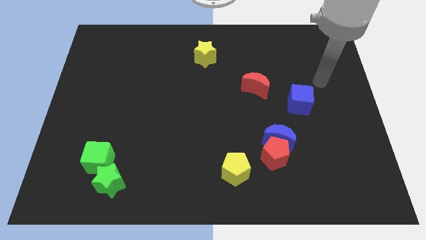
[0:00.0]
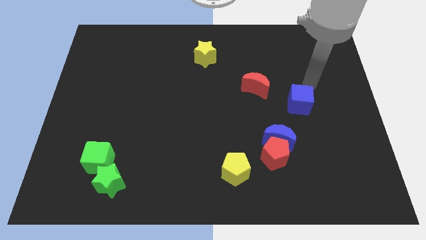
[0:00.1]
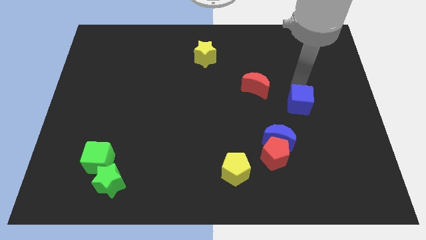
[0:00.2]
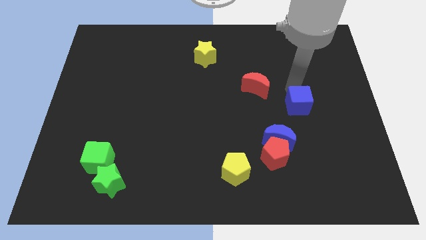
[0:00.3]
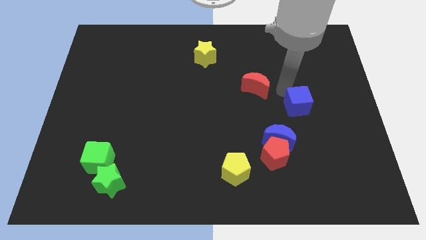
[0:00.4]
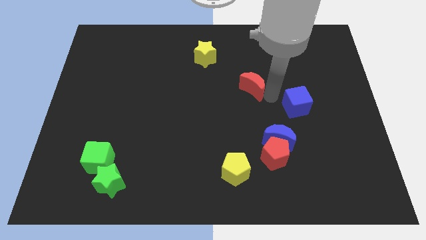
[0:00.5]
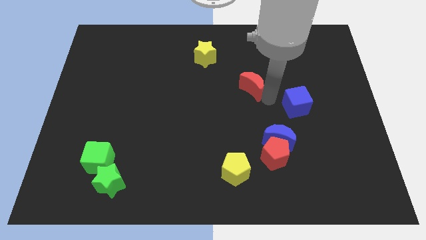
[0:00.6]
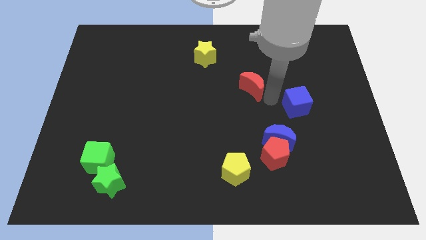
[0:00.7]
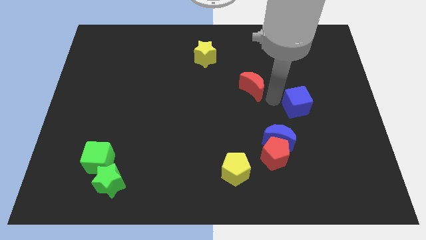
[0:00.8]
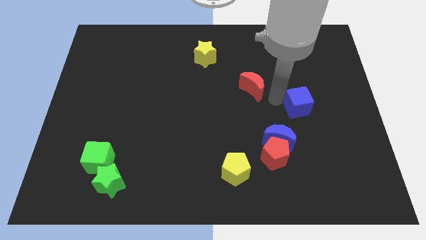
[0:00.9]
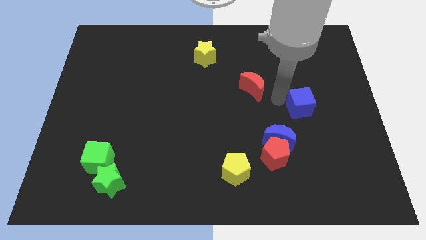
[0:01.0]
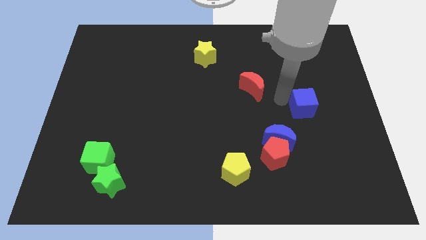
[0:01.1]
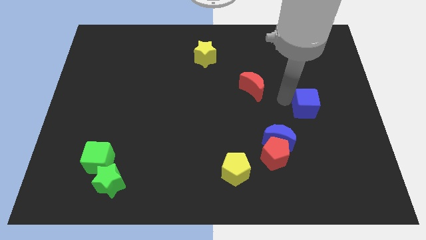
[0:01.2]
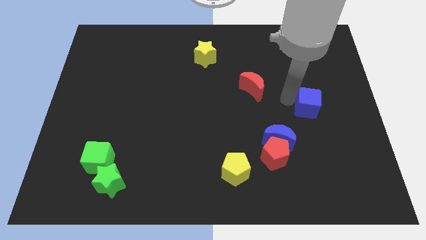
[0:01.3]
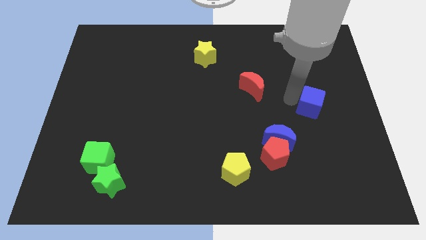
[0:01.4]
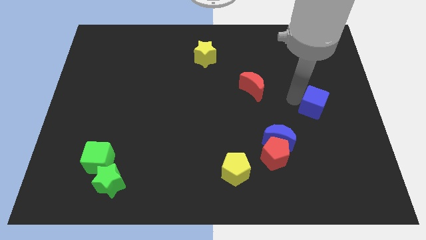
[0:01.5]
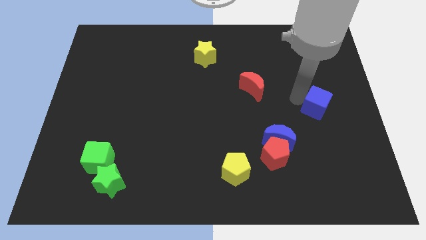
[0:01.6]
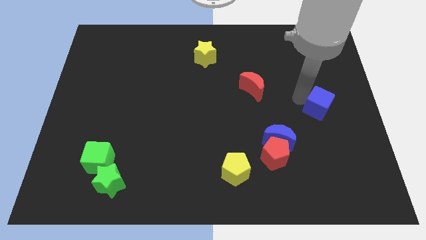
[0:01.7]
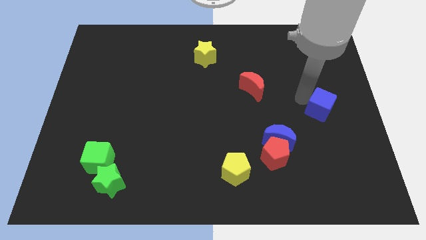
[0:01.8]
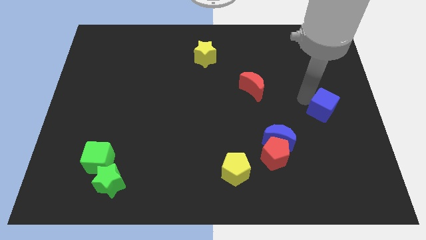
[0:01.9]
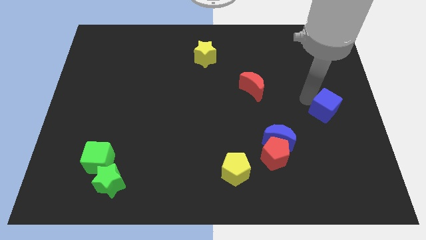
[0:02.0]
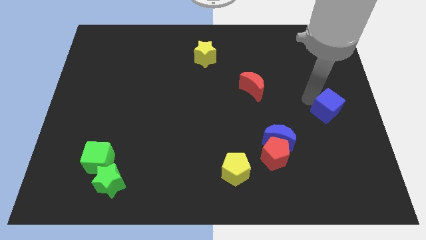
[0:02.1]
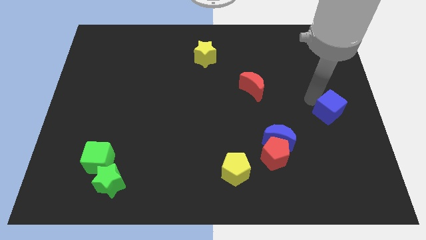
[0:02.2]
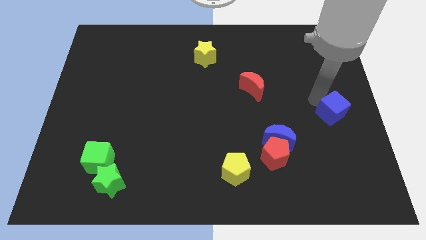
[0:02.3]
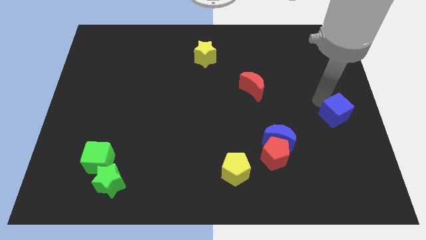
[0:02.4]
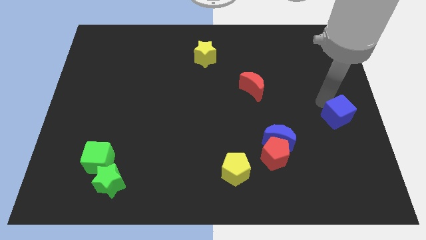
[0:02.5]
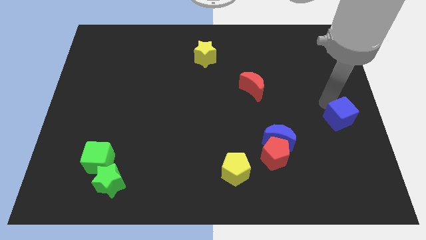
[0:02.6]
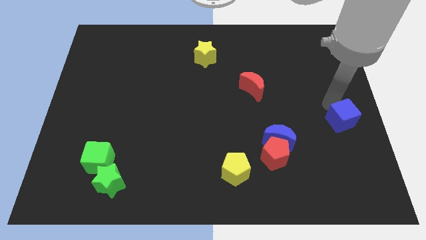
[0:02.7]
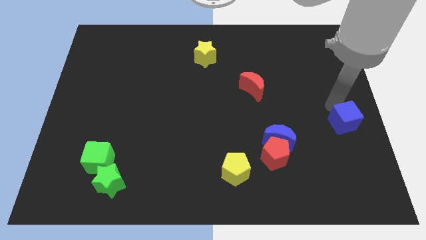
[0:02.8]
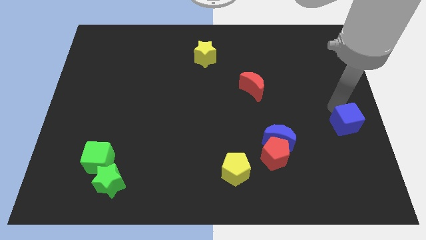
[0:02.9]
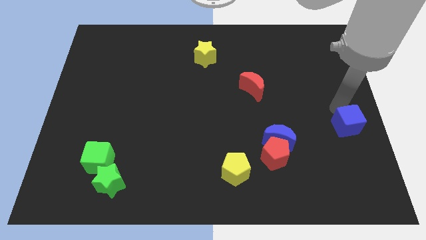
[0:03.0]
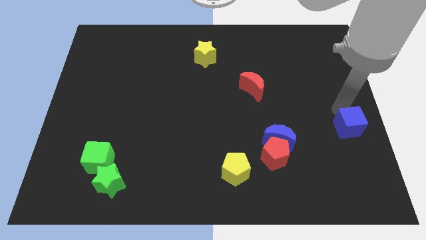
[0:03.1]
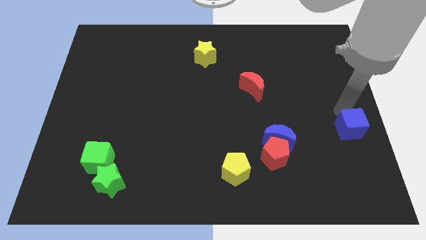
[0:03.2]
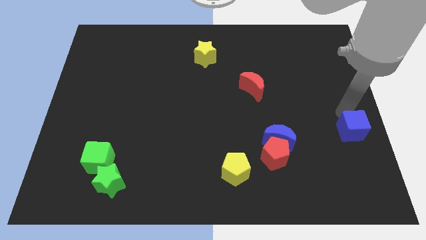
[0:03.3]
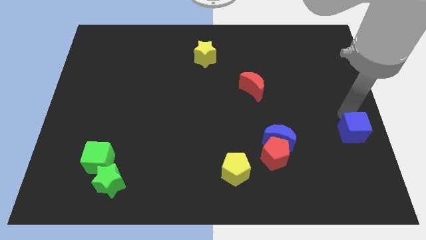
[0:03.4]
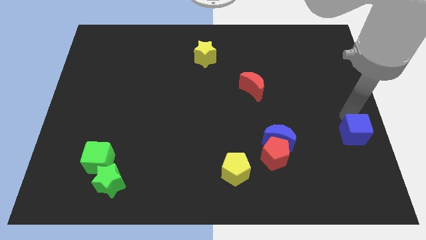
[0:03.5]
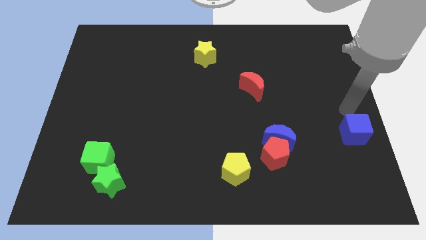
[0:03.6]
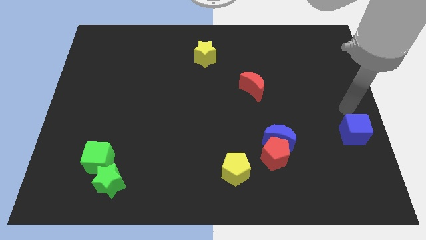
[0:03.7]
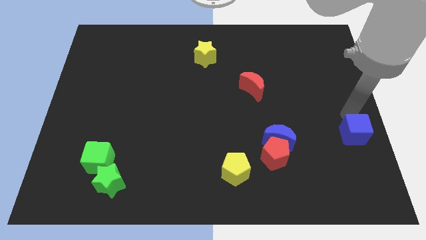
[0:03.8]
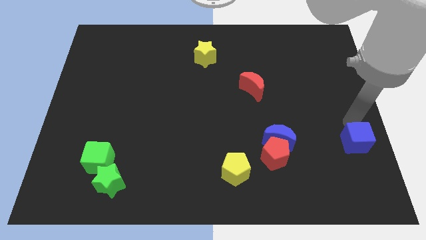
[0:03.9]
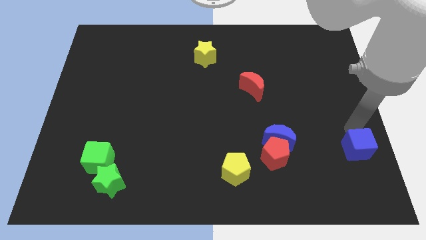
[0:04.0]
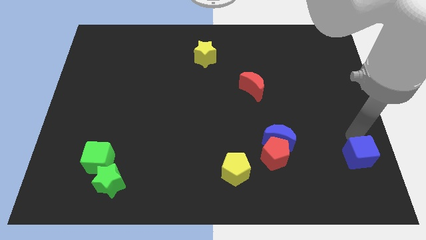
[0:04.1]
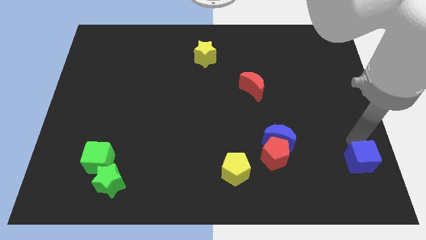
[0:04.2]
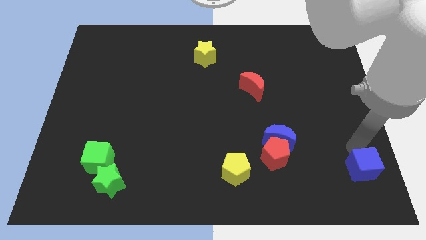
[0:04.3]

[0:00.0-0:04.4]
move the blue cube to the lower right corner

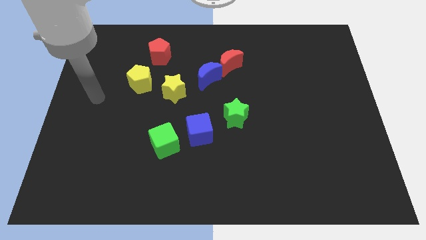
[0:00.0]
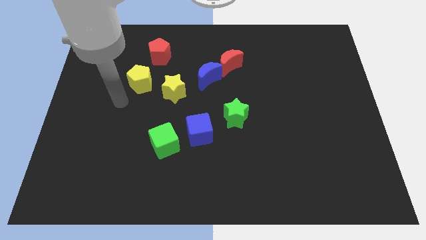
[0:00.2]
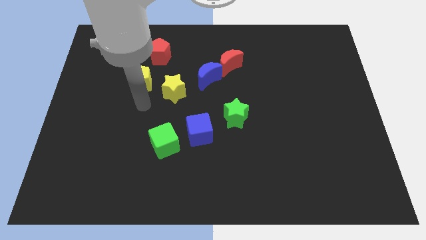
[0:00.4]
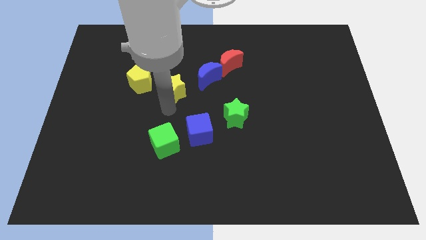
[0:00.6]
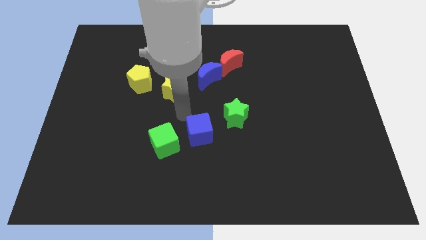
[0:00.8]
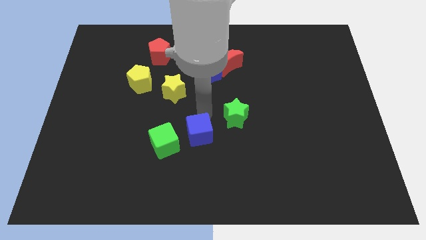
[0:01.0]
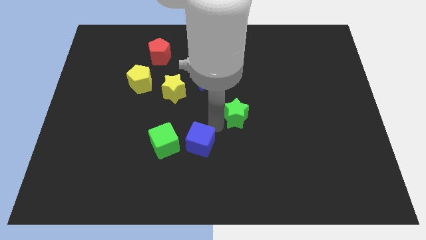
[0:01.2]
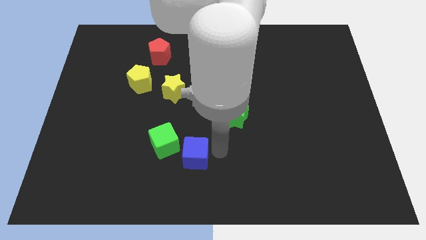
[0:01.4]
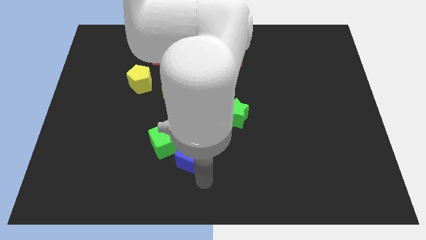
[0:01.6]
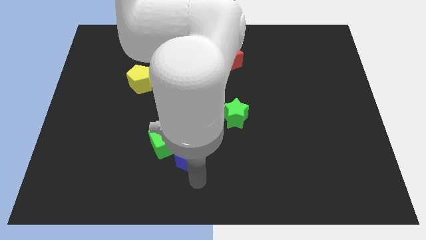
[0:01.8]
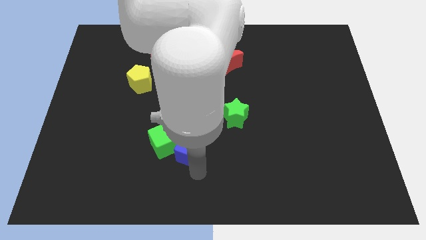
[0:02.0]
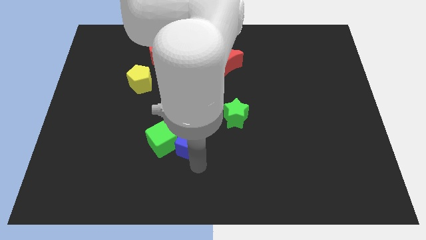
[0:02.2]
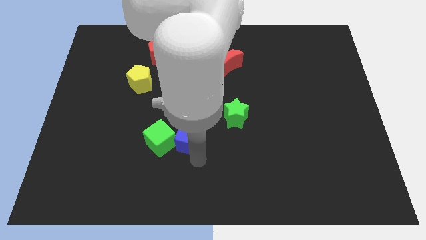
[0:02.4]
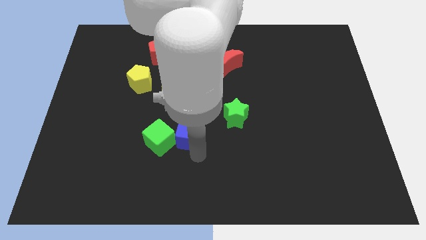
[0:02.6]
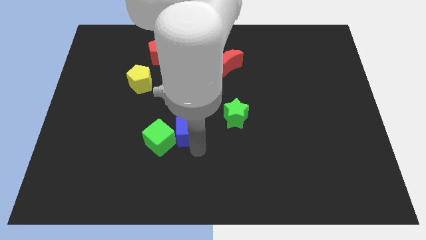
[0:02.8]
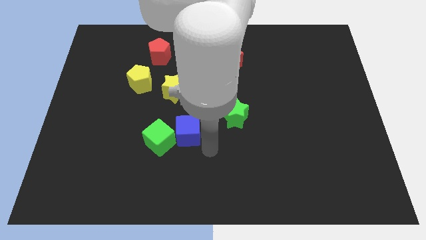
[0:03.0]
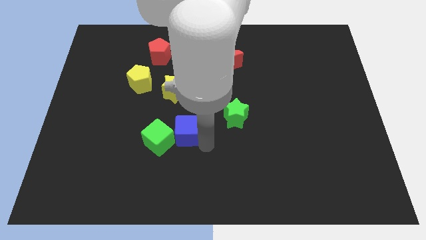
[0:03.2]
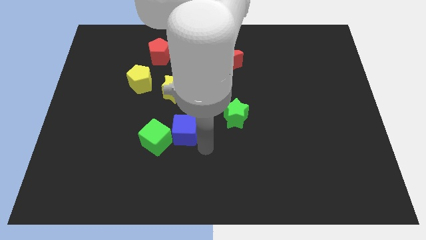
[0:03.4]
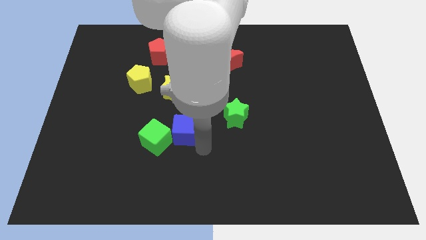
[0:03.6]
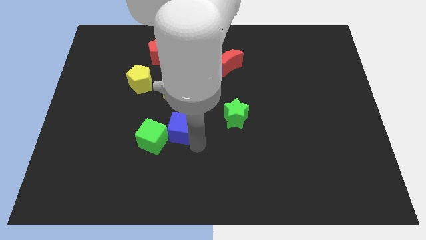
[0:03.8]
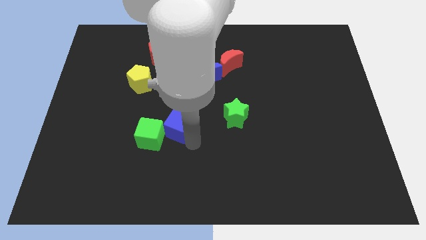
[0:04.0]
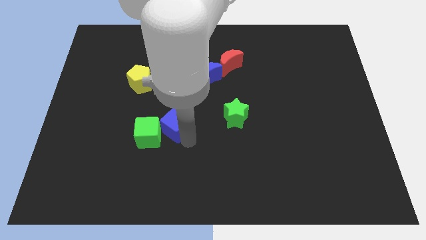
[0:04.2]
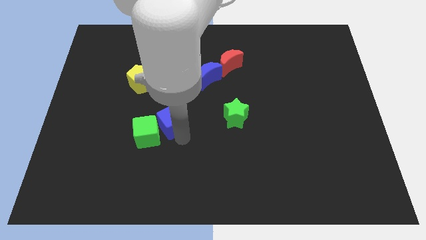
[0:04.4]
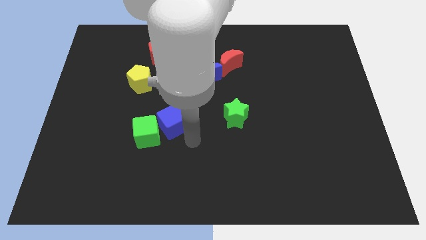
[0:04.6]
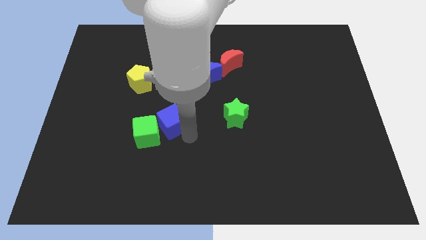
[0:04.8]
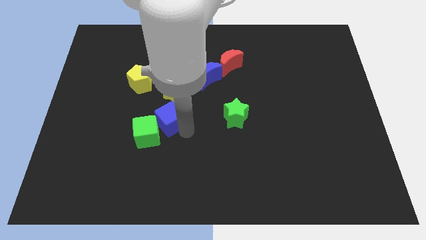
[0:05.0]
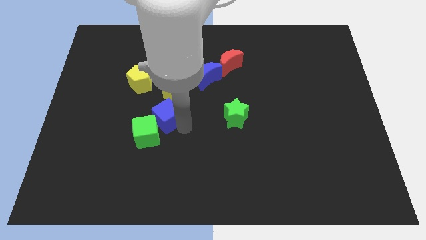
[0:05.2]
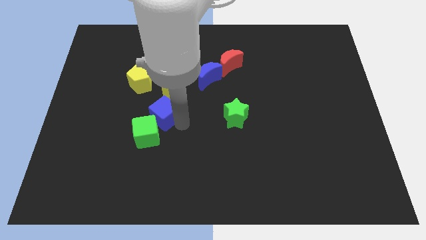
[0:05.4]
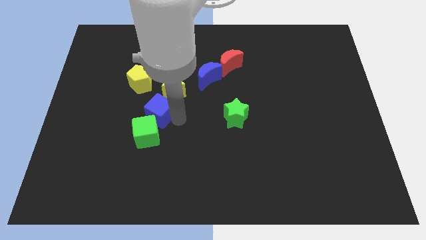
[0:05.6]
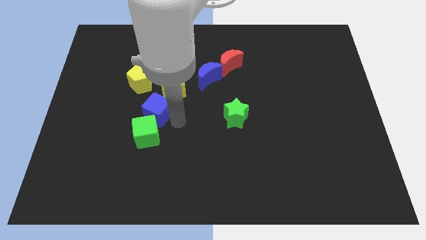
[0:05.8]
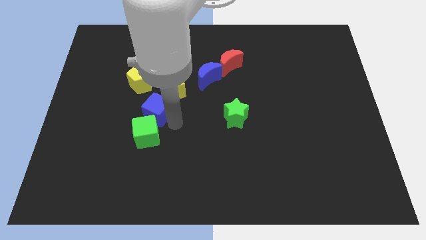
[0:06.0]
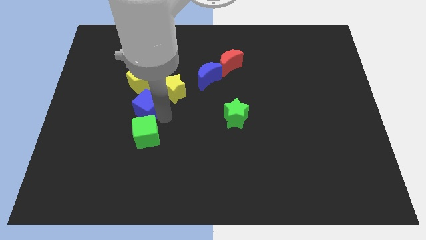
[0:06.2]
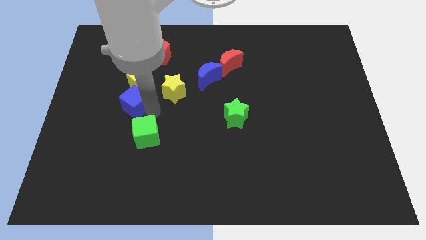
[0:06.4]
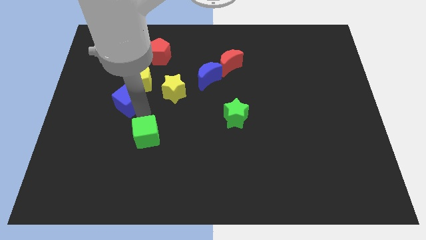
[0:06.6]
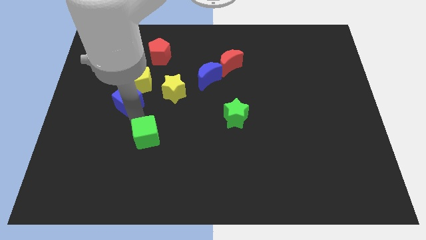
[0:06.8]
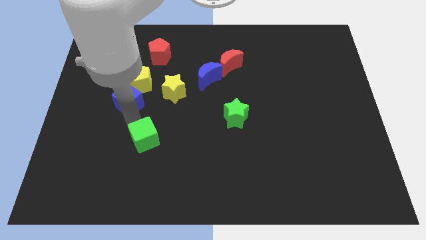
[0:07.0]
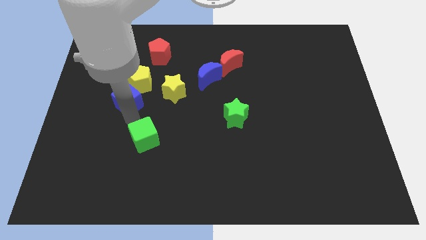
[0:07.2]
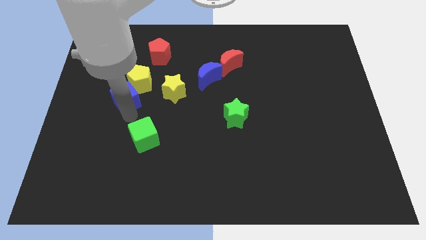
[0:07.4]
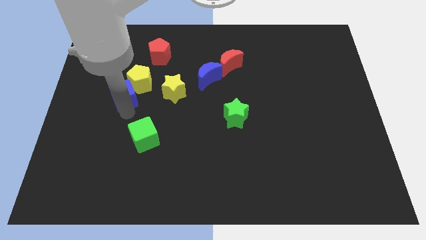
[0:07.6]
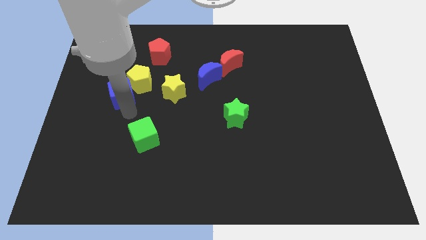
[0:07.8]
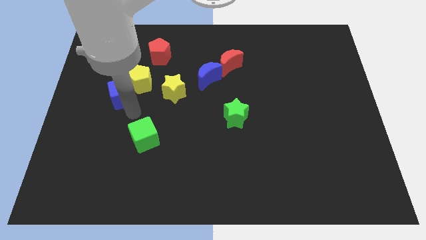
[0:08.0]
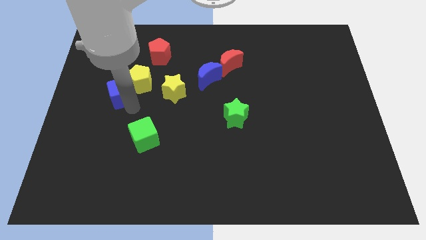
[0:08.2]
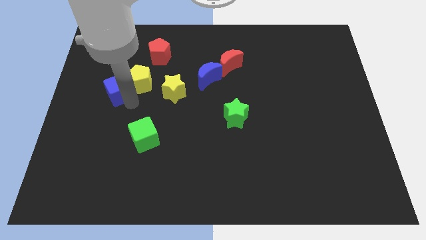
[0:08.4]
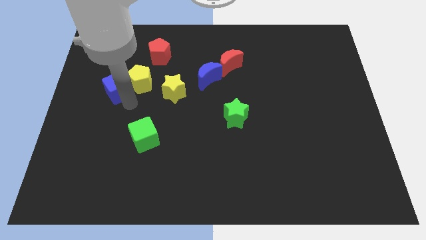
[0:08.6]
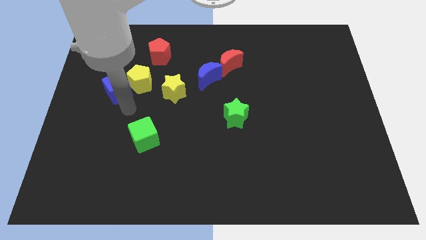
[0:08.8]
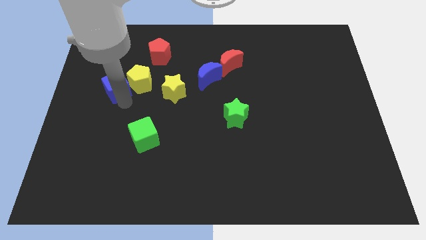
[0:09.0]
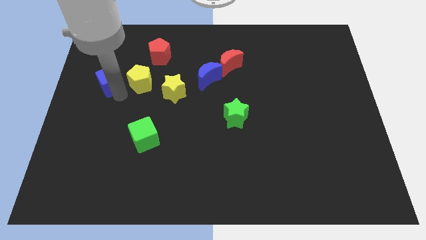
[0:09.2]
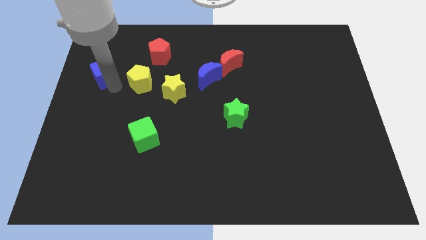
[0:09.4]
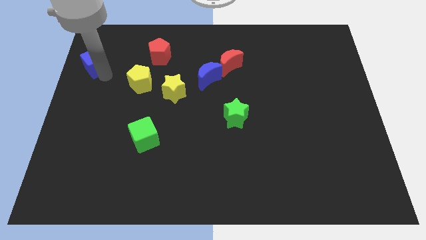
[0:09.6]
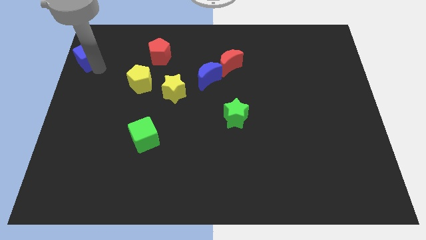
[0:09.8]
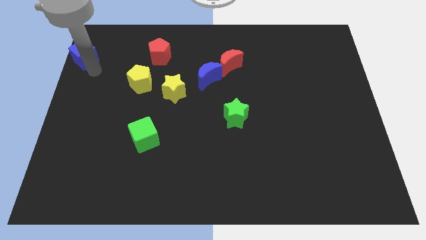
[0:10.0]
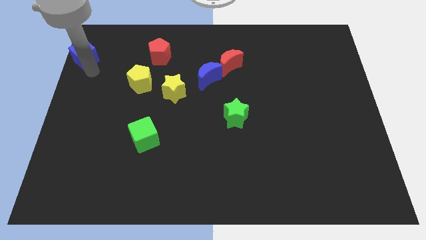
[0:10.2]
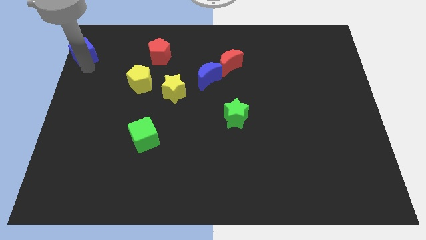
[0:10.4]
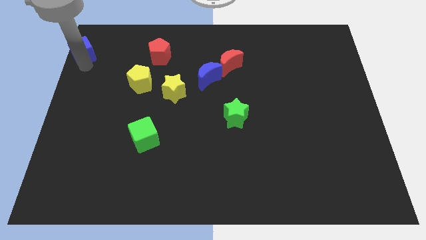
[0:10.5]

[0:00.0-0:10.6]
push the blue cube to the top left of the board
